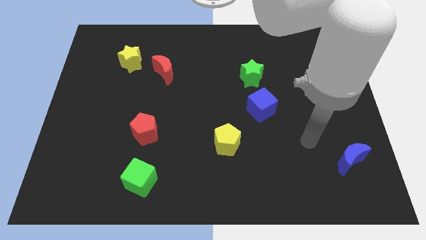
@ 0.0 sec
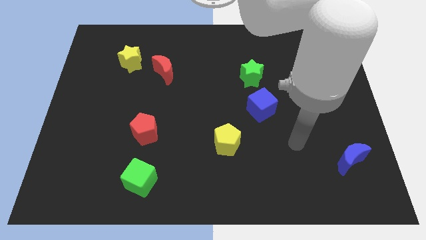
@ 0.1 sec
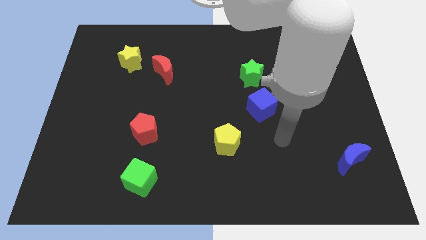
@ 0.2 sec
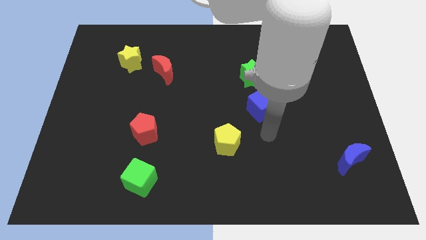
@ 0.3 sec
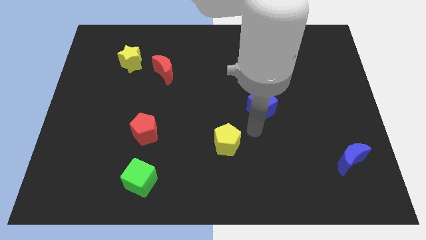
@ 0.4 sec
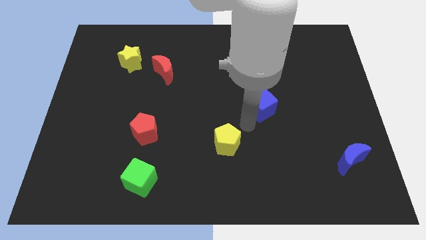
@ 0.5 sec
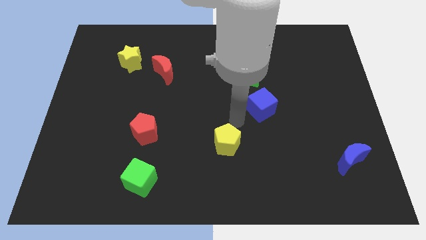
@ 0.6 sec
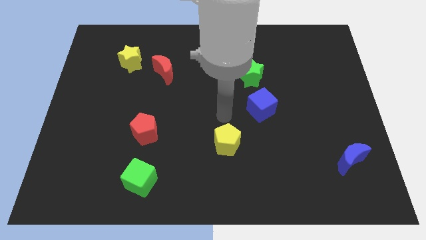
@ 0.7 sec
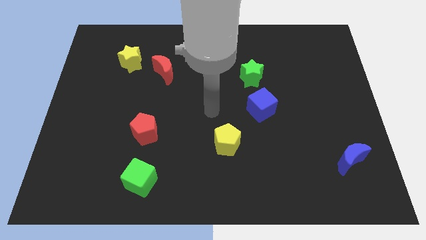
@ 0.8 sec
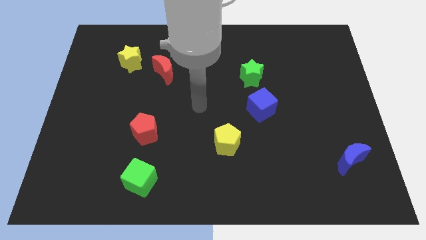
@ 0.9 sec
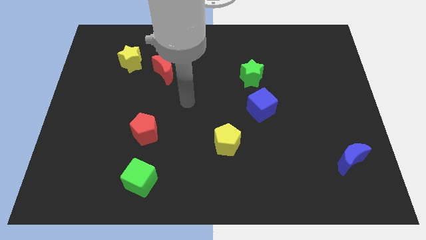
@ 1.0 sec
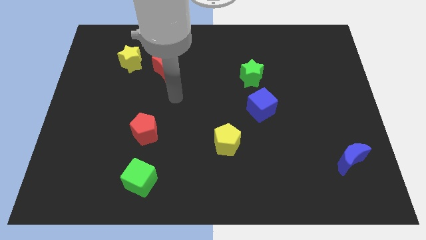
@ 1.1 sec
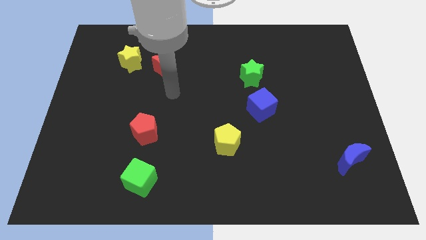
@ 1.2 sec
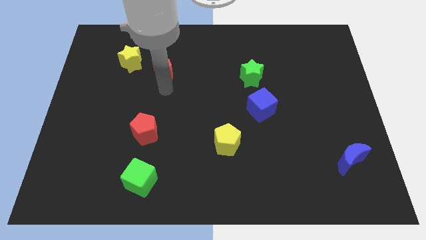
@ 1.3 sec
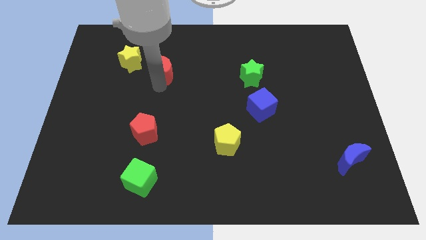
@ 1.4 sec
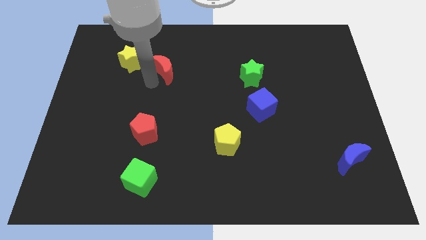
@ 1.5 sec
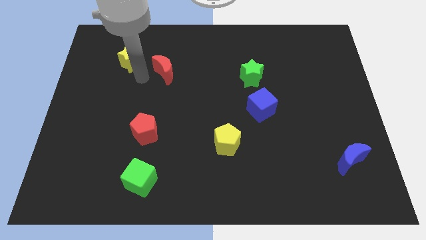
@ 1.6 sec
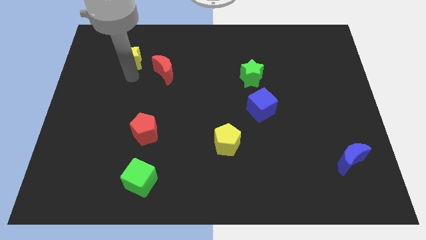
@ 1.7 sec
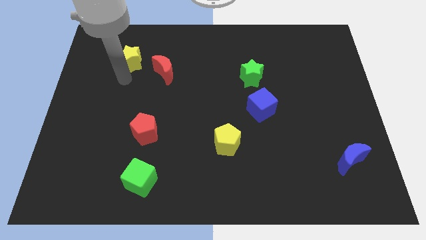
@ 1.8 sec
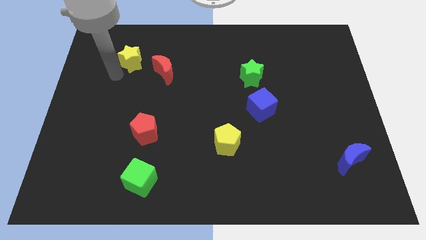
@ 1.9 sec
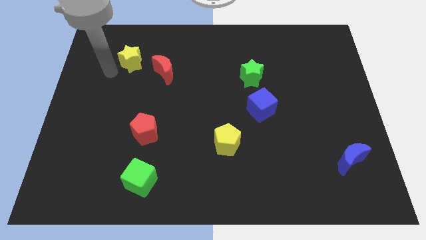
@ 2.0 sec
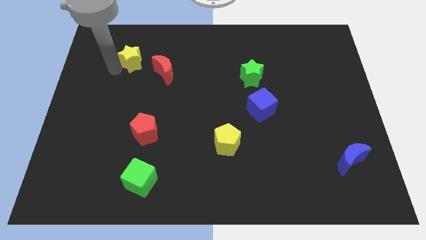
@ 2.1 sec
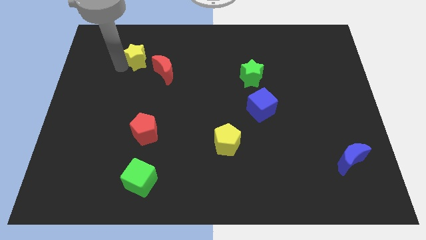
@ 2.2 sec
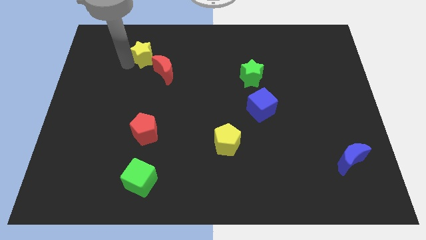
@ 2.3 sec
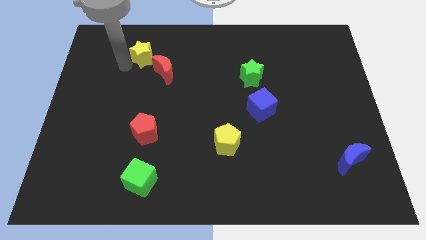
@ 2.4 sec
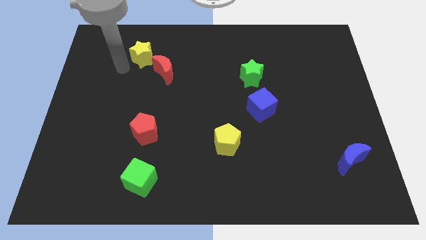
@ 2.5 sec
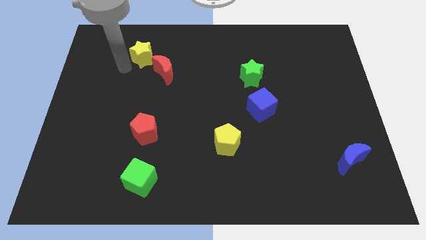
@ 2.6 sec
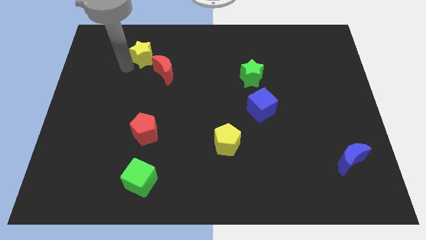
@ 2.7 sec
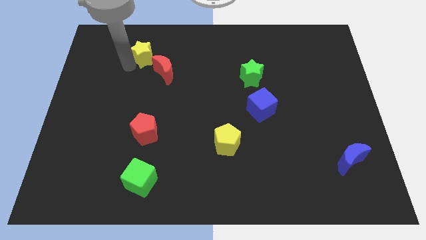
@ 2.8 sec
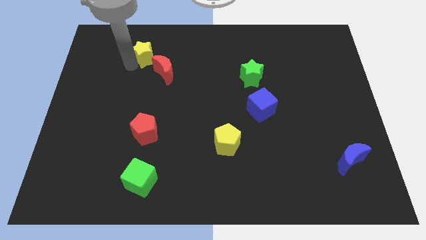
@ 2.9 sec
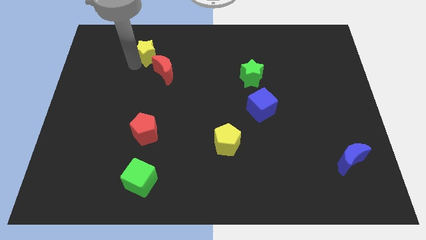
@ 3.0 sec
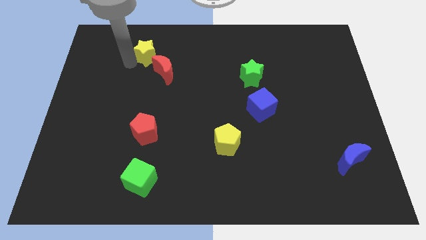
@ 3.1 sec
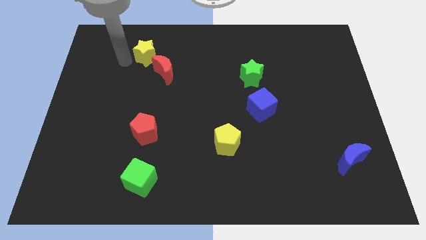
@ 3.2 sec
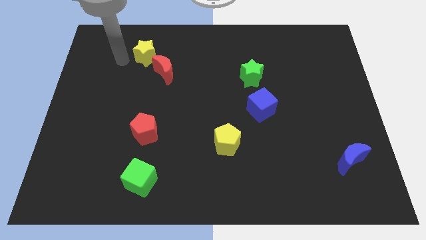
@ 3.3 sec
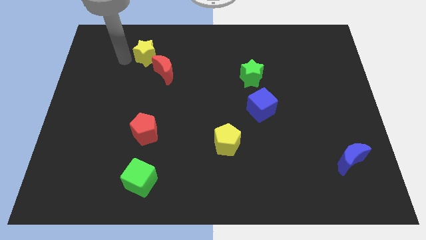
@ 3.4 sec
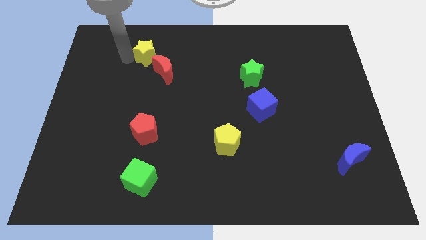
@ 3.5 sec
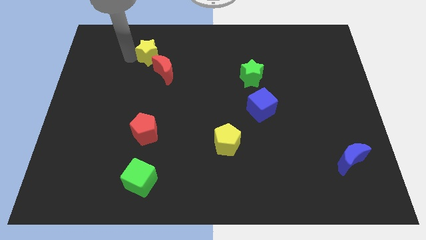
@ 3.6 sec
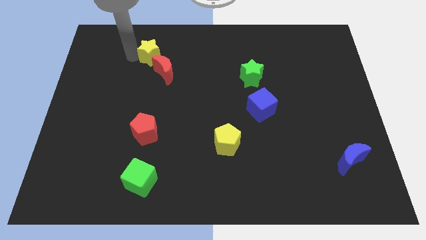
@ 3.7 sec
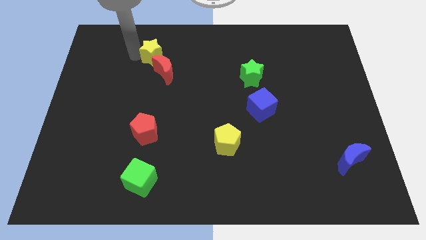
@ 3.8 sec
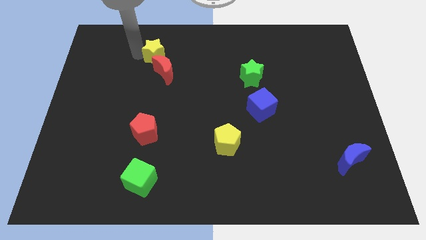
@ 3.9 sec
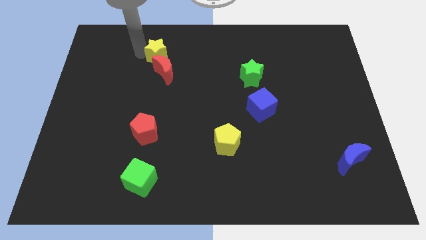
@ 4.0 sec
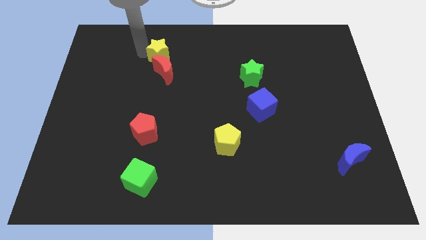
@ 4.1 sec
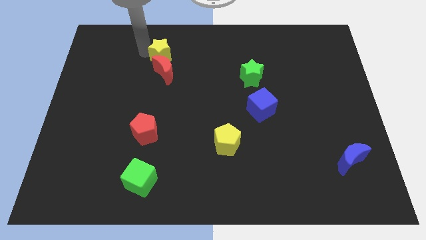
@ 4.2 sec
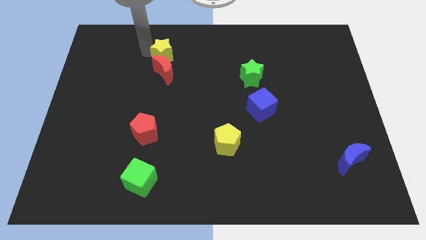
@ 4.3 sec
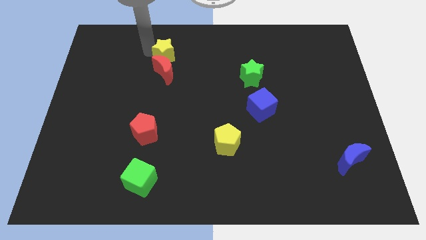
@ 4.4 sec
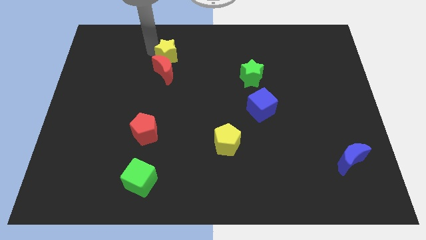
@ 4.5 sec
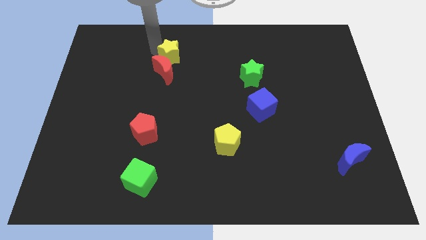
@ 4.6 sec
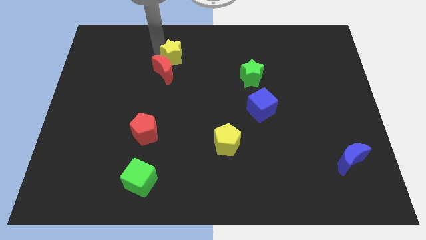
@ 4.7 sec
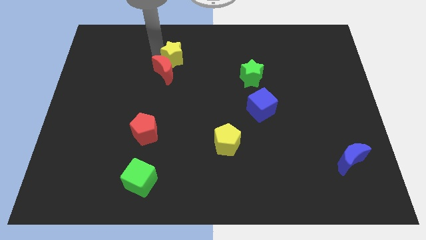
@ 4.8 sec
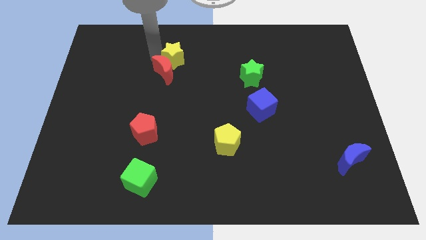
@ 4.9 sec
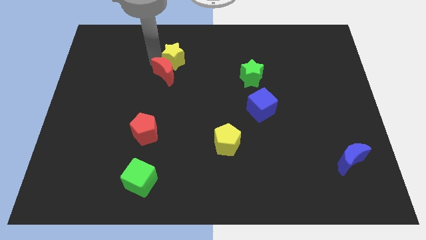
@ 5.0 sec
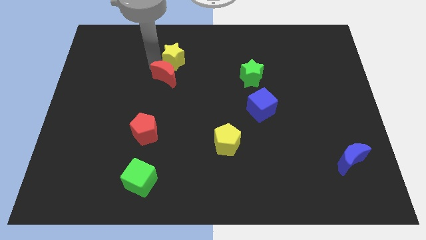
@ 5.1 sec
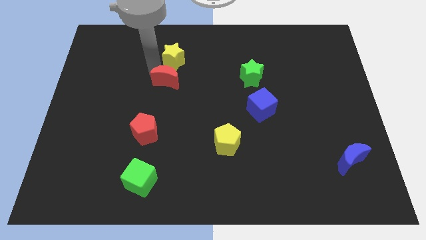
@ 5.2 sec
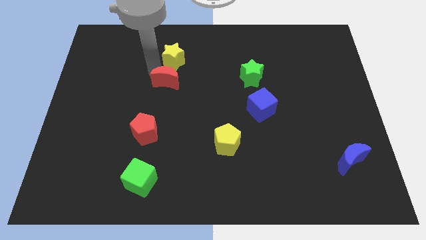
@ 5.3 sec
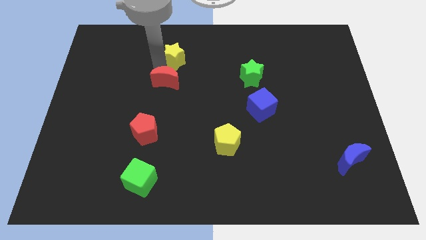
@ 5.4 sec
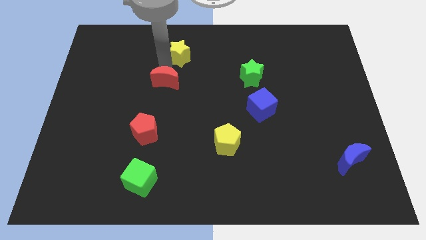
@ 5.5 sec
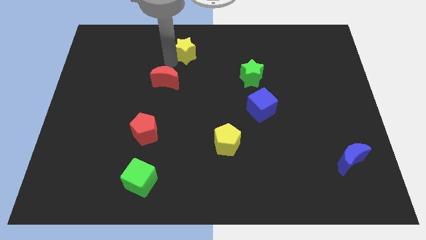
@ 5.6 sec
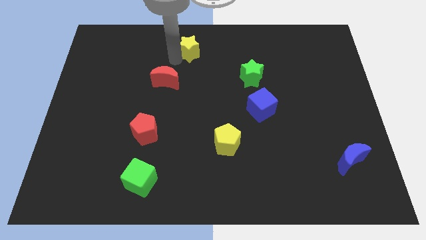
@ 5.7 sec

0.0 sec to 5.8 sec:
put the yellow star to the top
